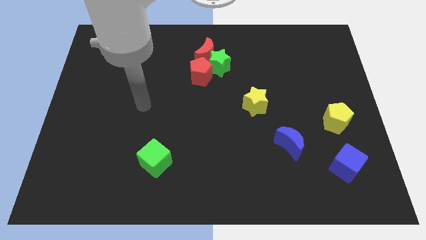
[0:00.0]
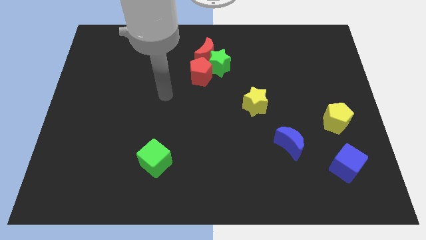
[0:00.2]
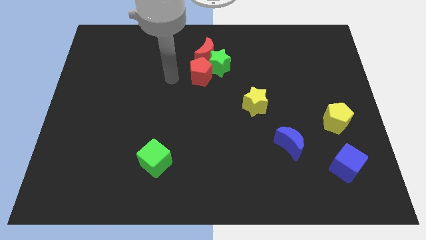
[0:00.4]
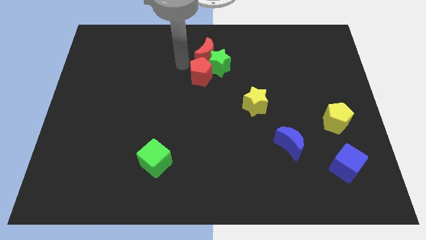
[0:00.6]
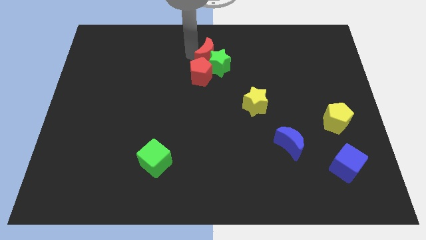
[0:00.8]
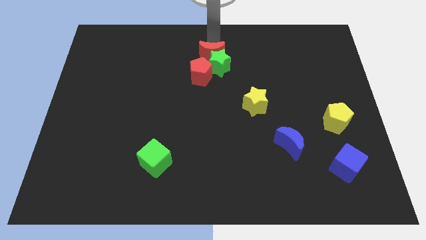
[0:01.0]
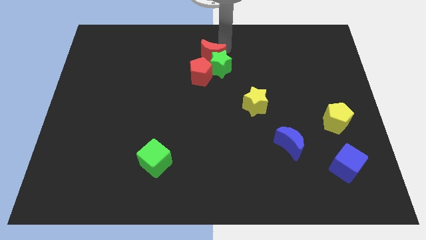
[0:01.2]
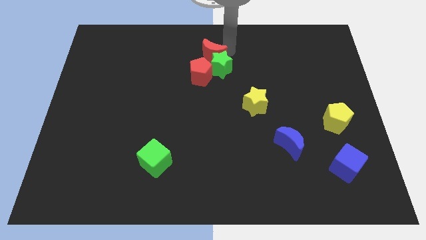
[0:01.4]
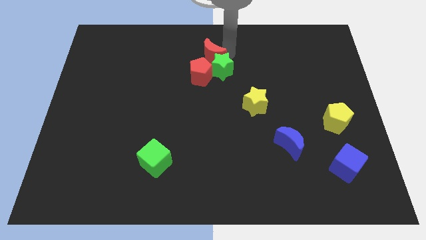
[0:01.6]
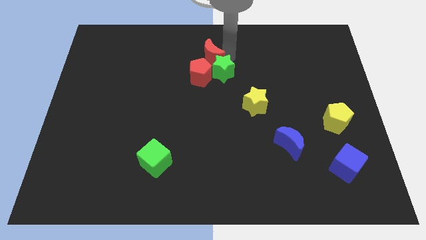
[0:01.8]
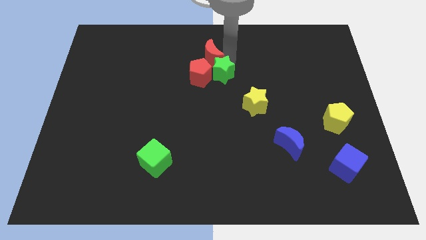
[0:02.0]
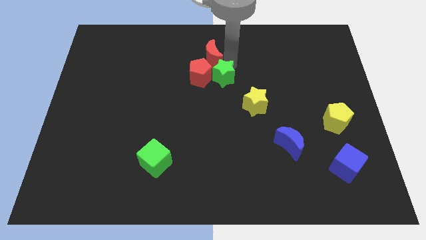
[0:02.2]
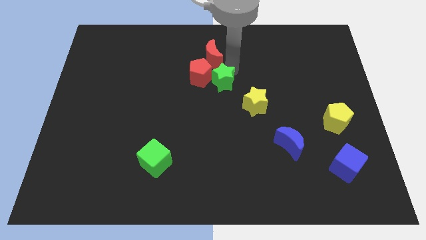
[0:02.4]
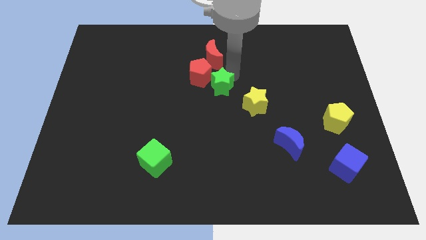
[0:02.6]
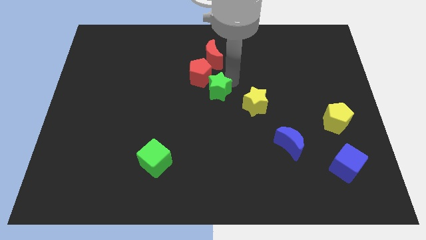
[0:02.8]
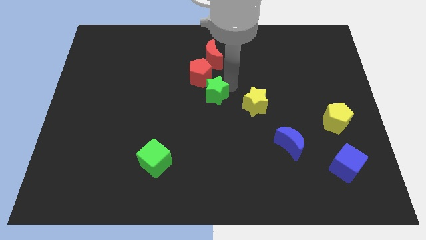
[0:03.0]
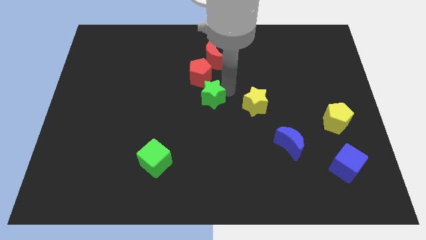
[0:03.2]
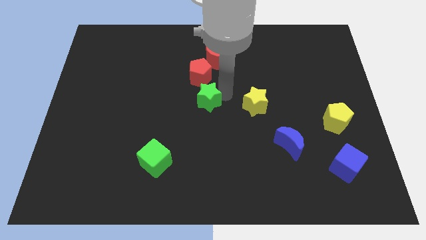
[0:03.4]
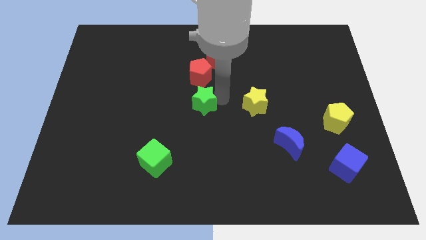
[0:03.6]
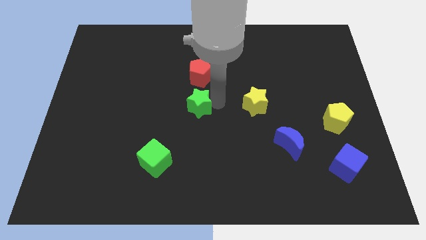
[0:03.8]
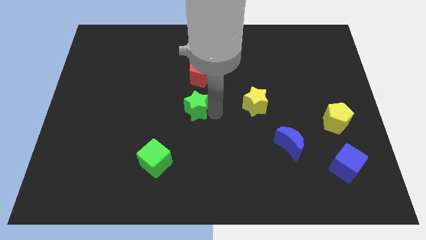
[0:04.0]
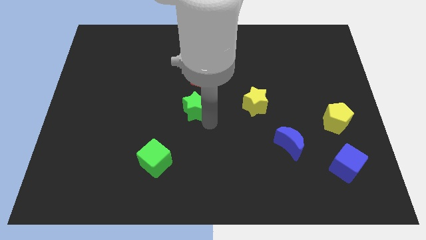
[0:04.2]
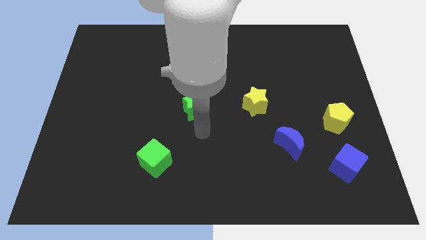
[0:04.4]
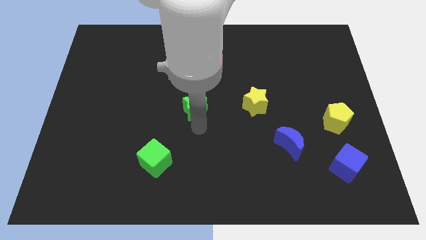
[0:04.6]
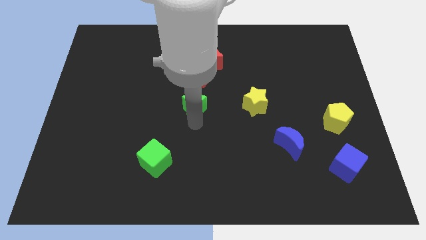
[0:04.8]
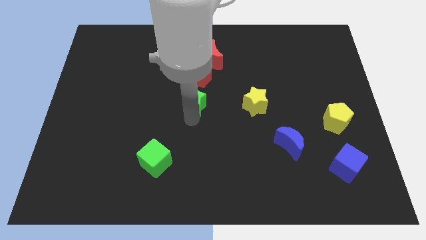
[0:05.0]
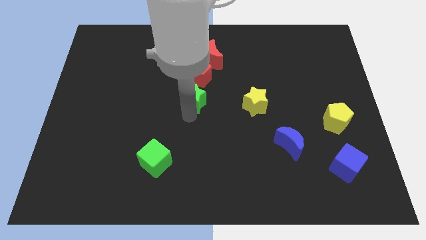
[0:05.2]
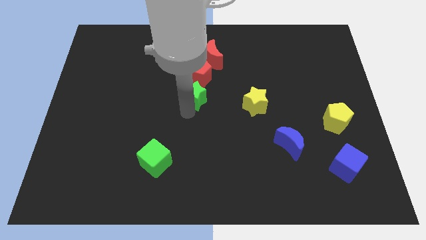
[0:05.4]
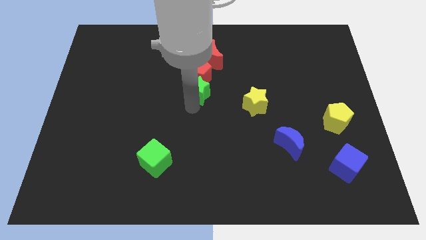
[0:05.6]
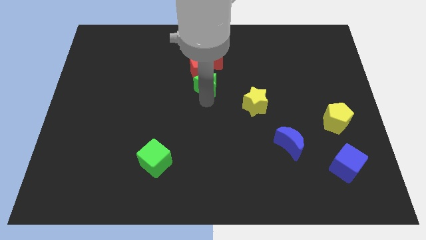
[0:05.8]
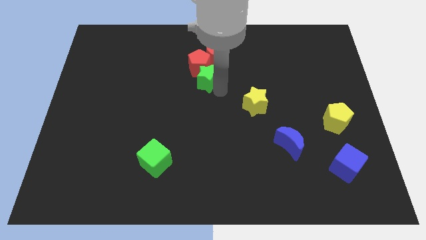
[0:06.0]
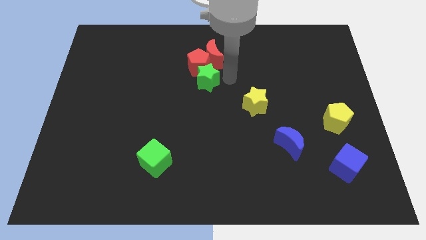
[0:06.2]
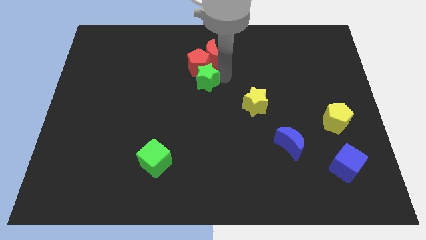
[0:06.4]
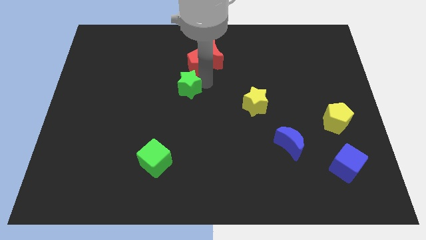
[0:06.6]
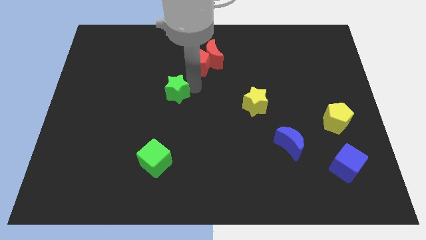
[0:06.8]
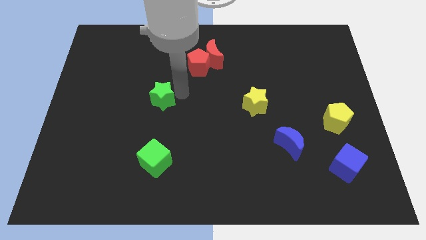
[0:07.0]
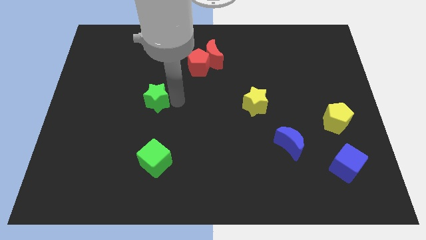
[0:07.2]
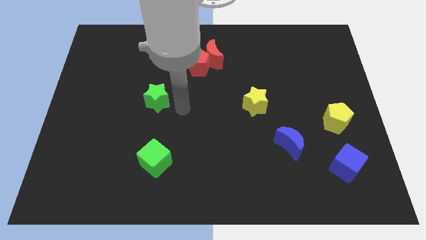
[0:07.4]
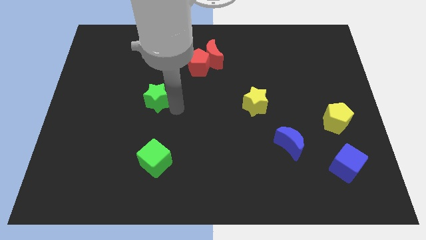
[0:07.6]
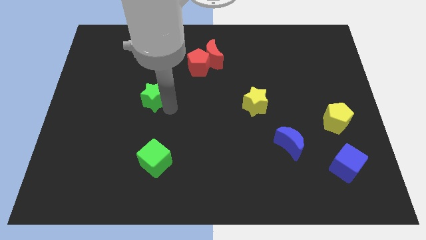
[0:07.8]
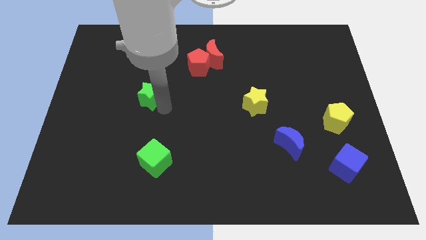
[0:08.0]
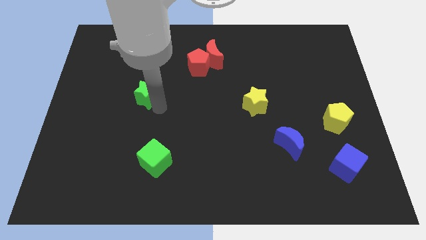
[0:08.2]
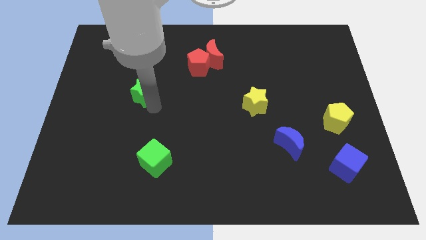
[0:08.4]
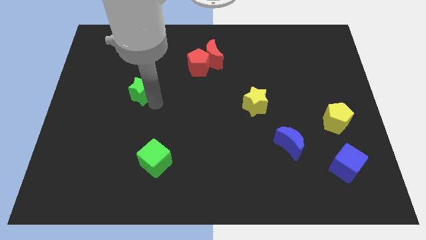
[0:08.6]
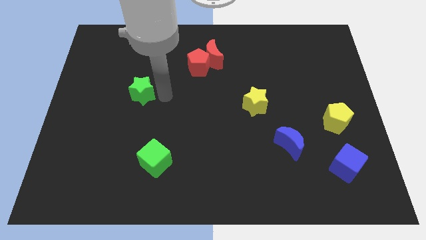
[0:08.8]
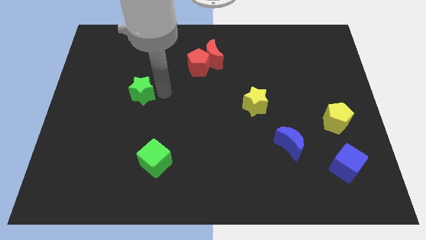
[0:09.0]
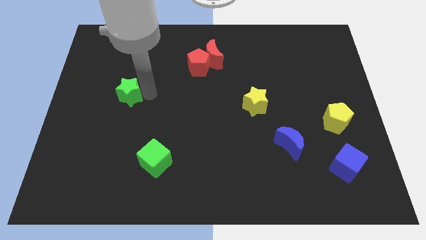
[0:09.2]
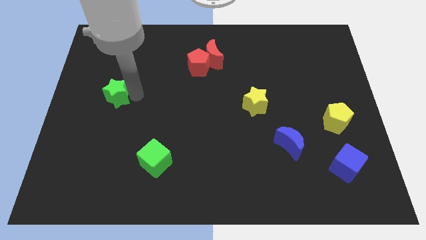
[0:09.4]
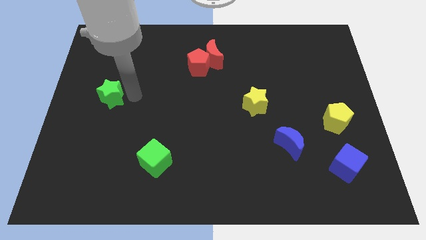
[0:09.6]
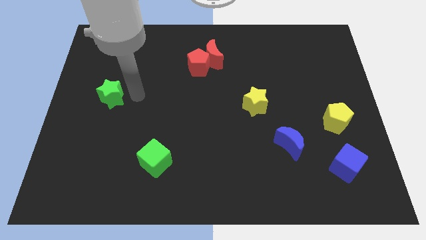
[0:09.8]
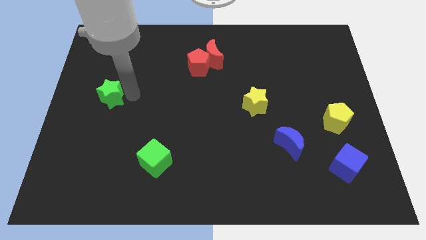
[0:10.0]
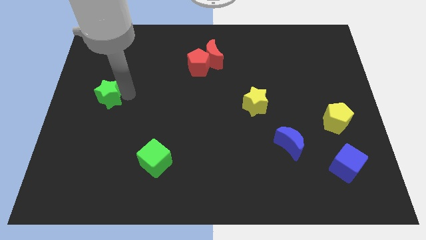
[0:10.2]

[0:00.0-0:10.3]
move the green star to the left side of the board

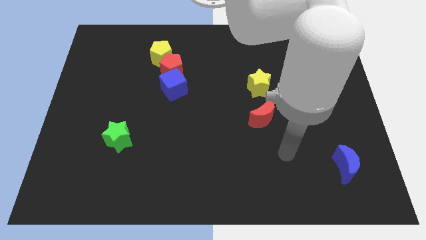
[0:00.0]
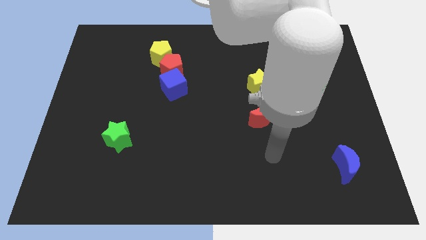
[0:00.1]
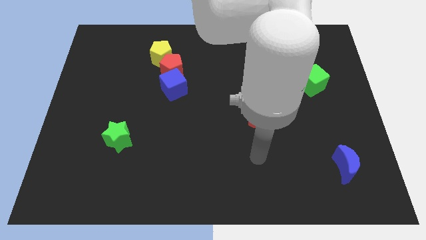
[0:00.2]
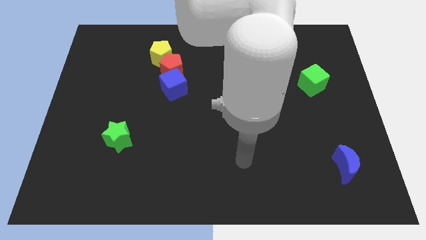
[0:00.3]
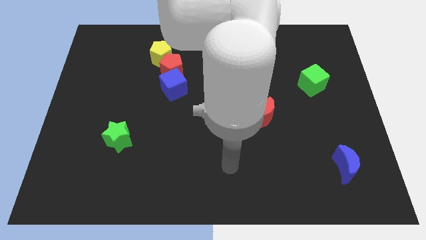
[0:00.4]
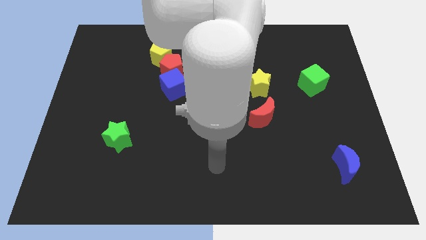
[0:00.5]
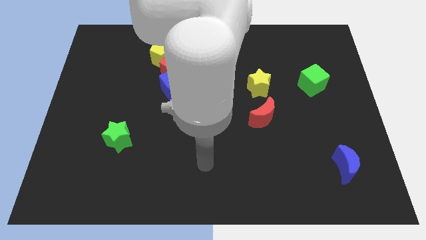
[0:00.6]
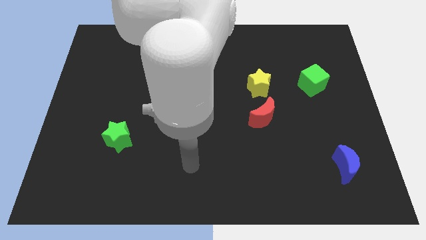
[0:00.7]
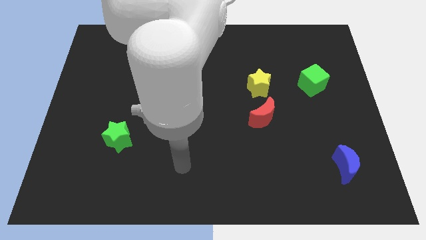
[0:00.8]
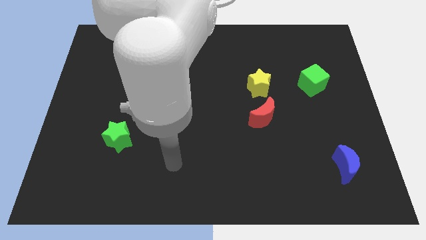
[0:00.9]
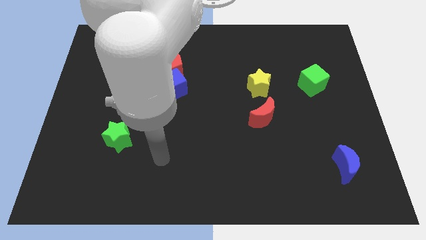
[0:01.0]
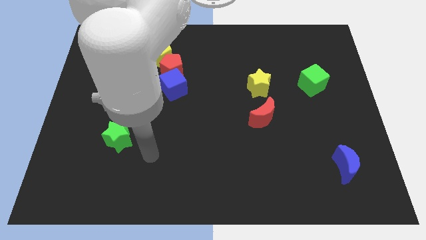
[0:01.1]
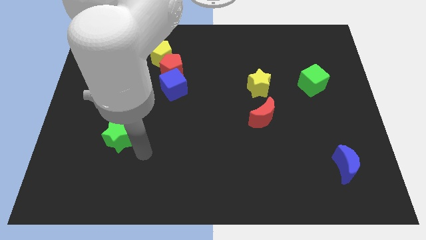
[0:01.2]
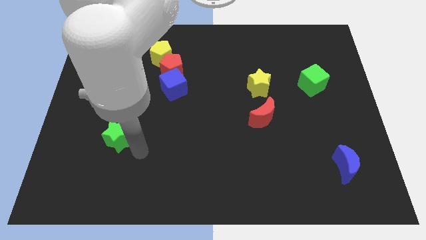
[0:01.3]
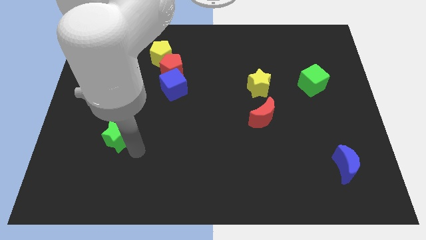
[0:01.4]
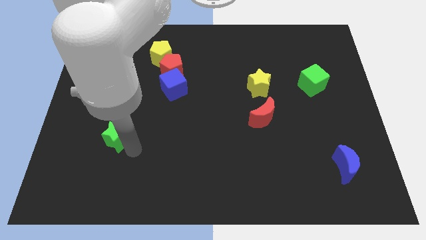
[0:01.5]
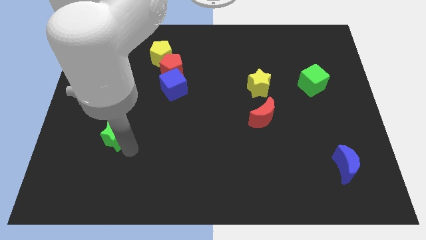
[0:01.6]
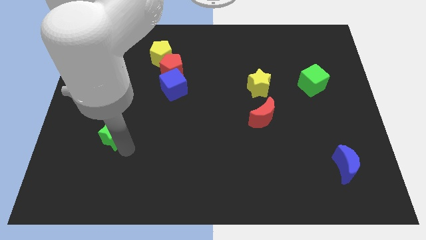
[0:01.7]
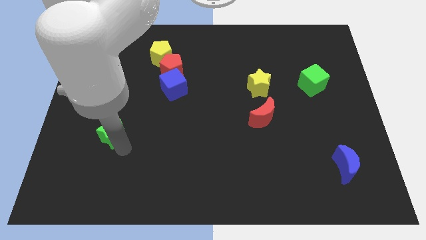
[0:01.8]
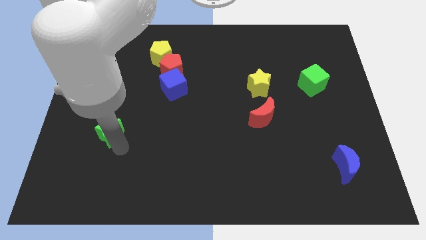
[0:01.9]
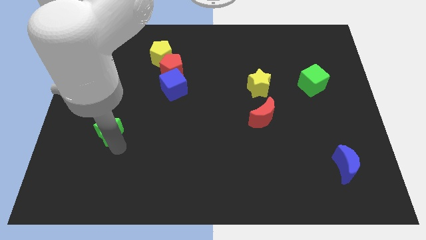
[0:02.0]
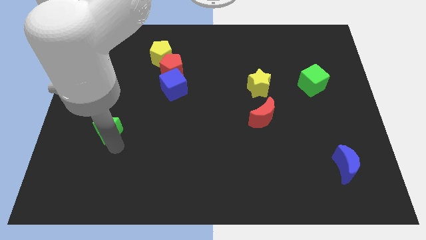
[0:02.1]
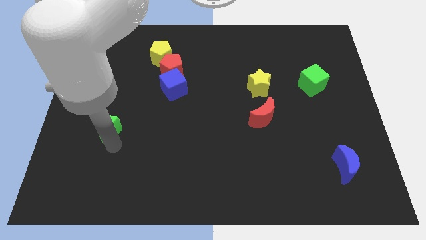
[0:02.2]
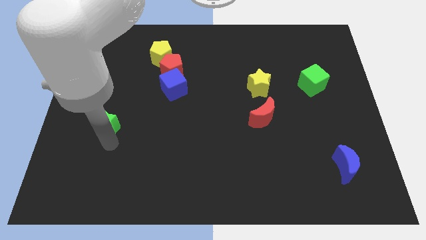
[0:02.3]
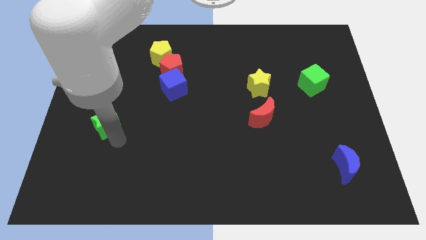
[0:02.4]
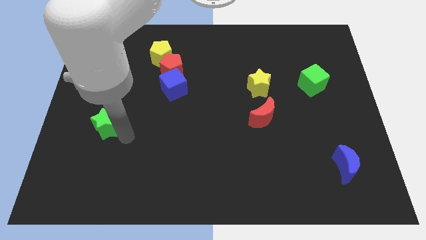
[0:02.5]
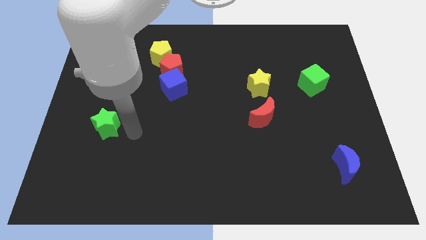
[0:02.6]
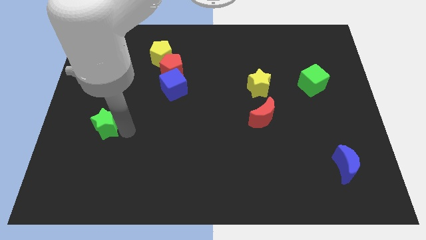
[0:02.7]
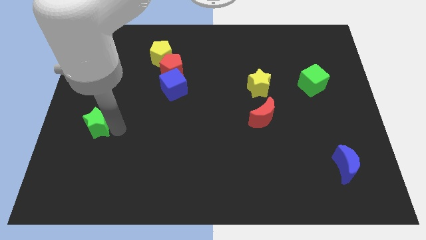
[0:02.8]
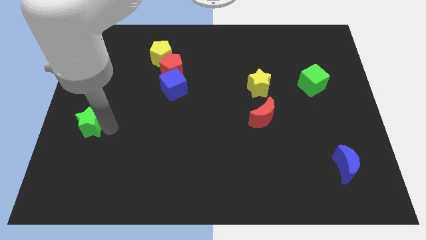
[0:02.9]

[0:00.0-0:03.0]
put the green star to the left side
